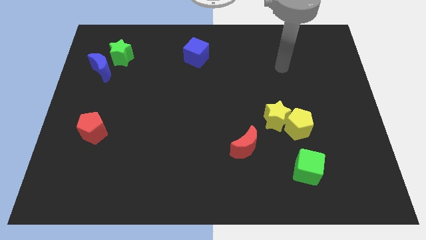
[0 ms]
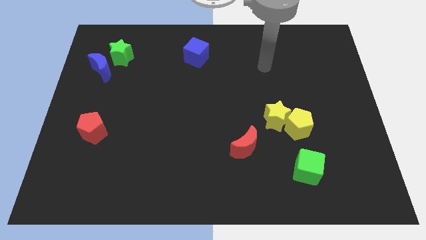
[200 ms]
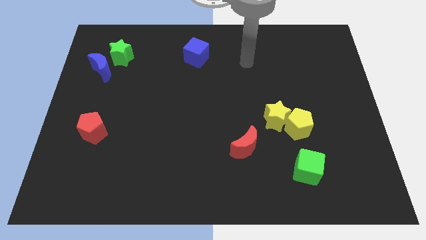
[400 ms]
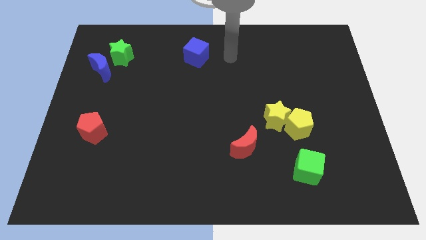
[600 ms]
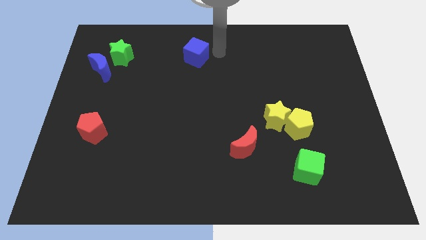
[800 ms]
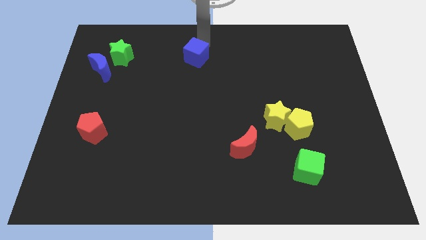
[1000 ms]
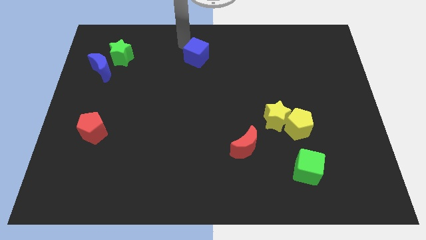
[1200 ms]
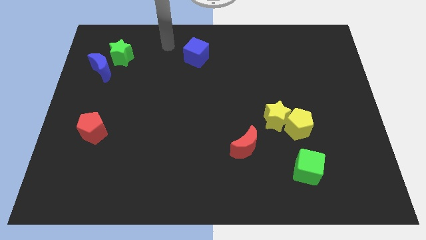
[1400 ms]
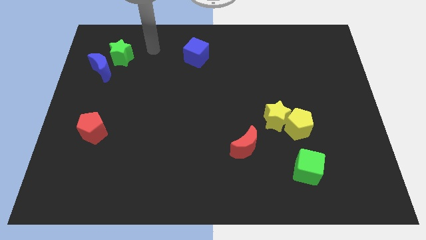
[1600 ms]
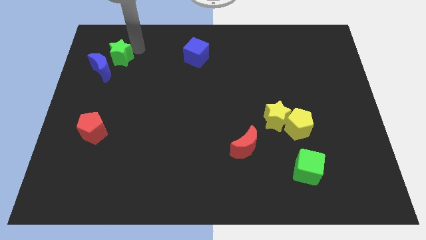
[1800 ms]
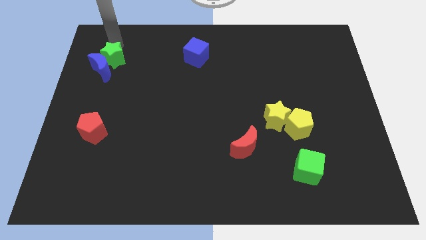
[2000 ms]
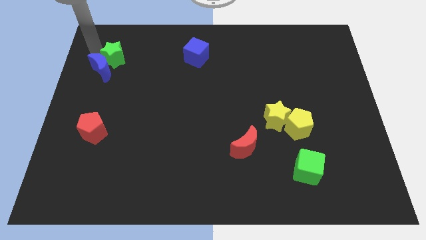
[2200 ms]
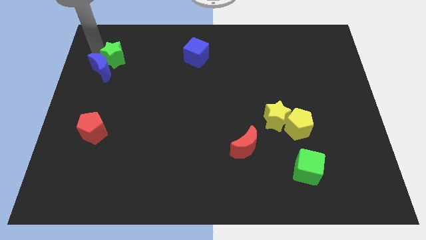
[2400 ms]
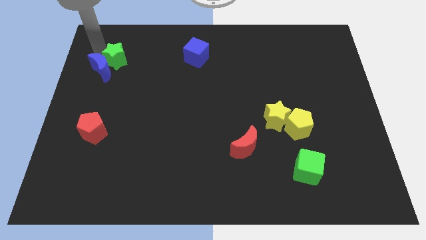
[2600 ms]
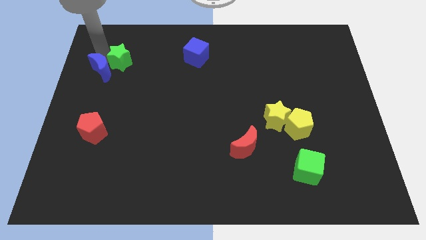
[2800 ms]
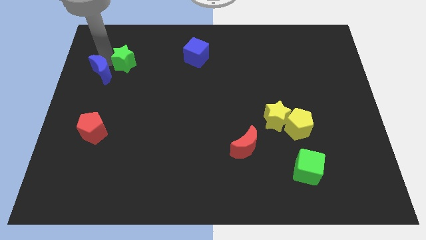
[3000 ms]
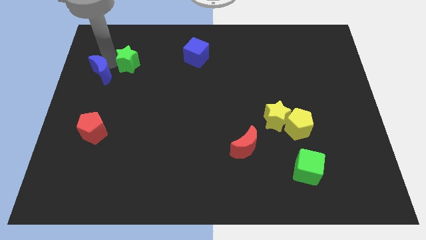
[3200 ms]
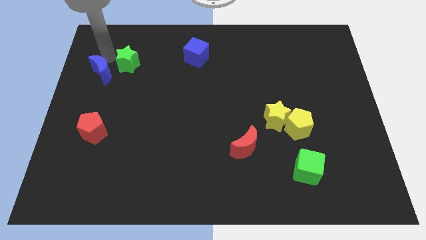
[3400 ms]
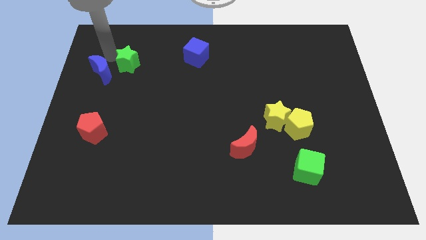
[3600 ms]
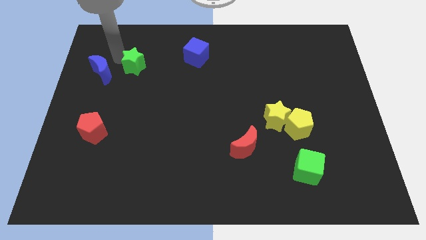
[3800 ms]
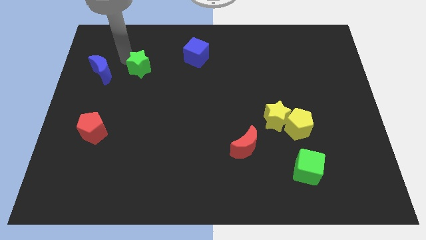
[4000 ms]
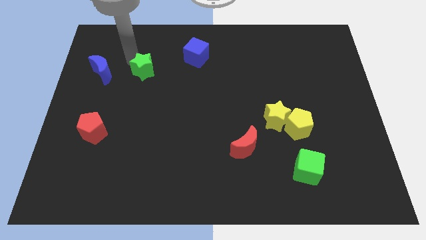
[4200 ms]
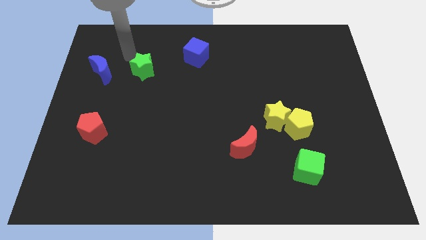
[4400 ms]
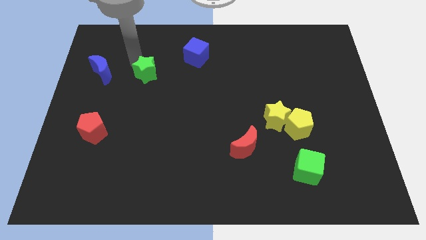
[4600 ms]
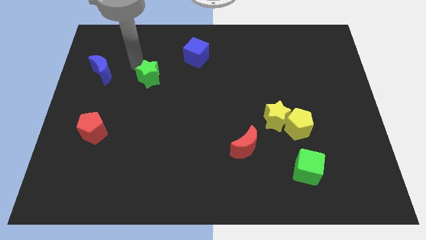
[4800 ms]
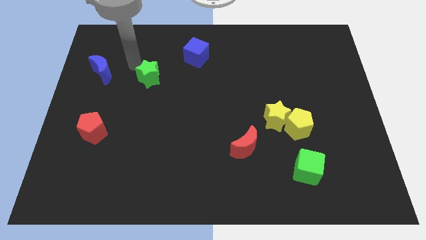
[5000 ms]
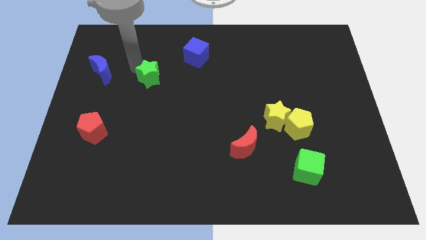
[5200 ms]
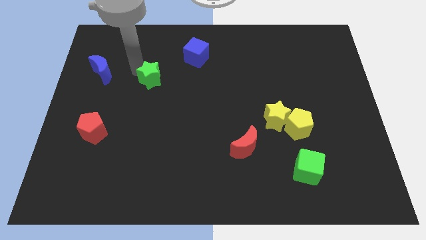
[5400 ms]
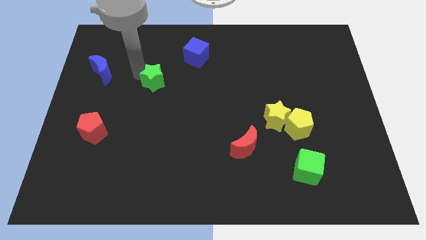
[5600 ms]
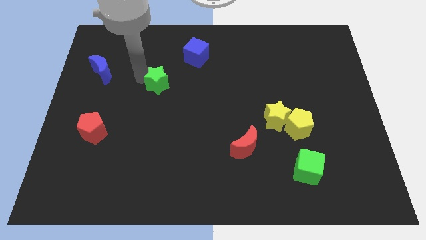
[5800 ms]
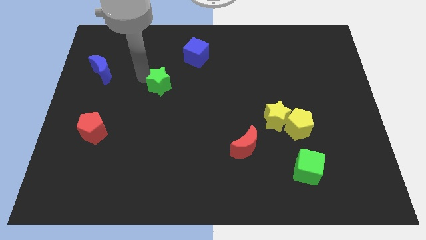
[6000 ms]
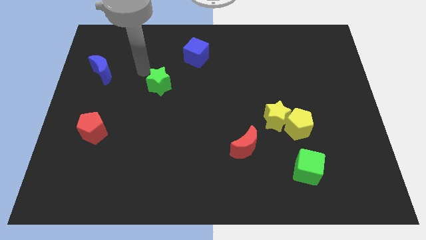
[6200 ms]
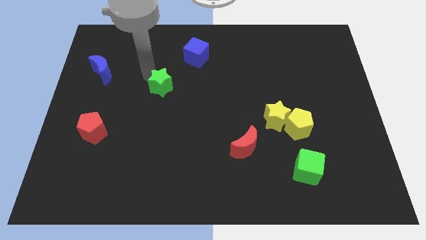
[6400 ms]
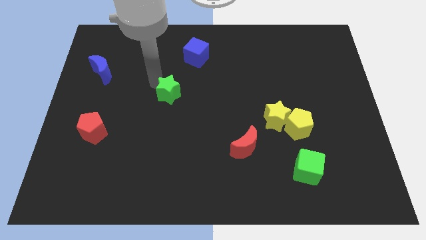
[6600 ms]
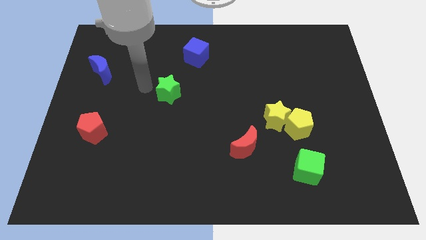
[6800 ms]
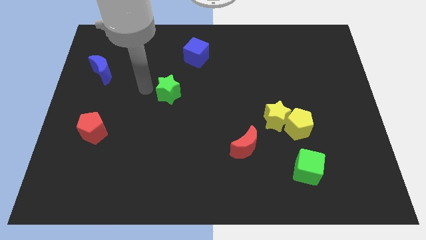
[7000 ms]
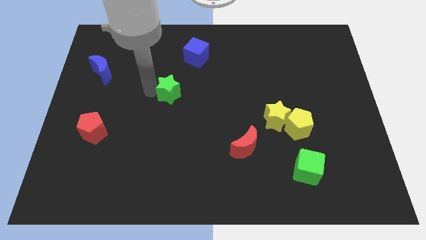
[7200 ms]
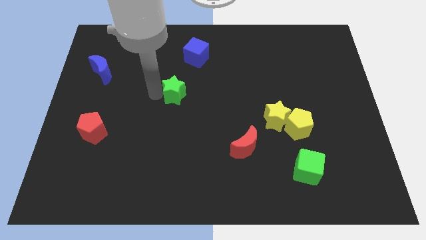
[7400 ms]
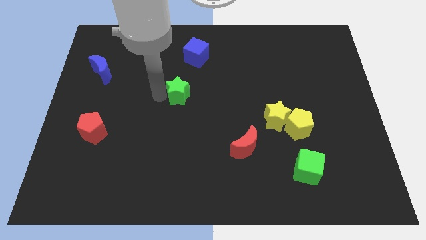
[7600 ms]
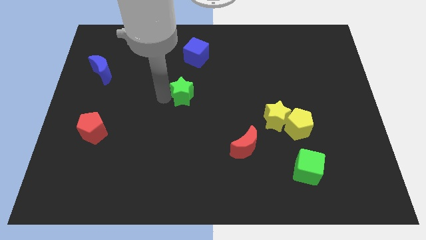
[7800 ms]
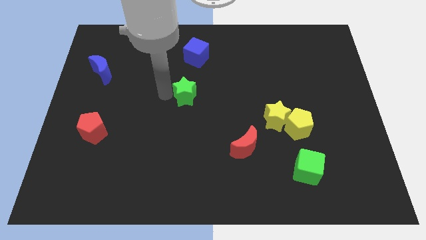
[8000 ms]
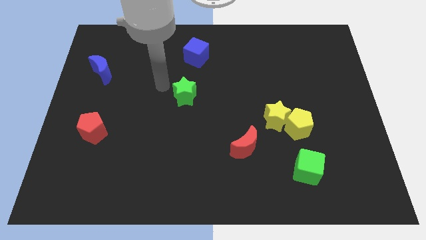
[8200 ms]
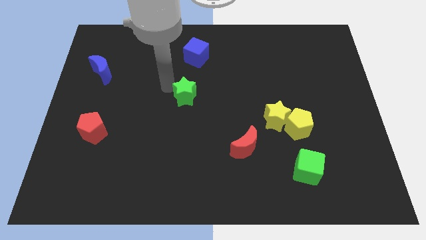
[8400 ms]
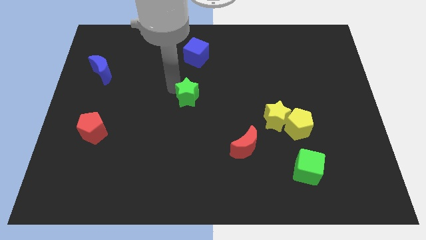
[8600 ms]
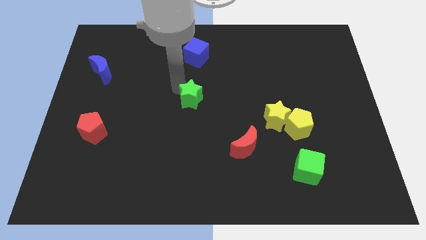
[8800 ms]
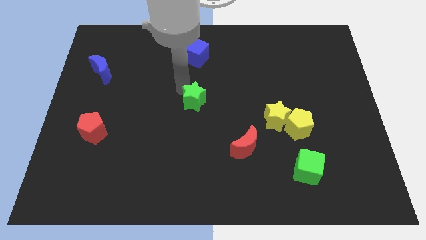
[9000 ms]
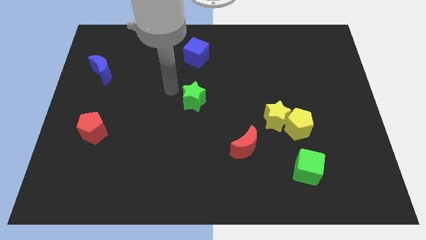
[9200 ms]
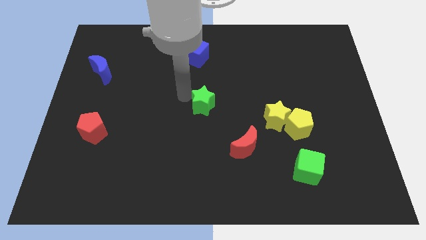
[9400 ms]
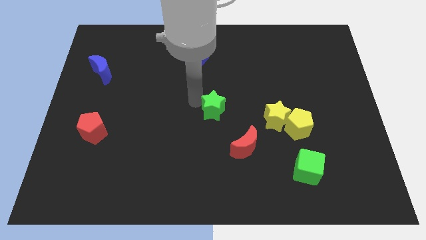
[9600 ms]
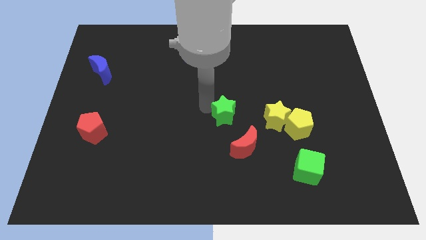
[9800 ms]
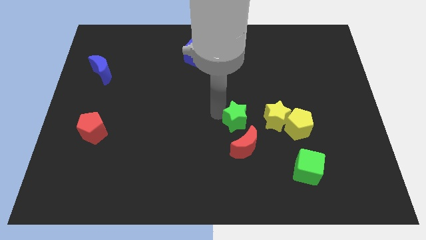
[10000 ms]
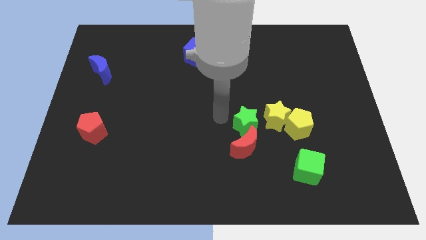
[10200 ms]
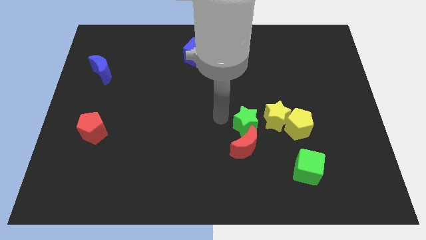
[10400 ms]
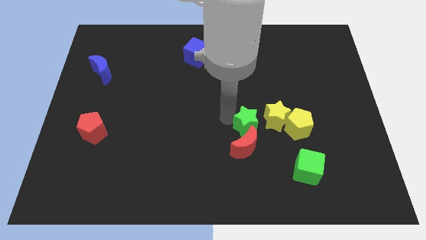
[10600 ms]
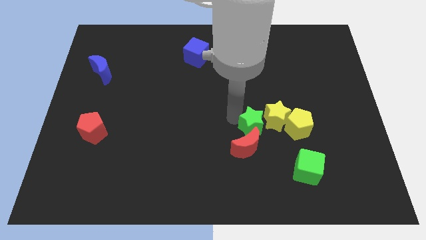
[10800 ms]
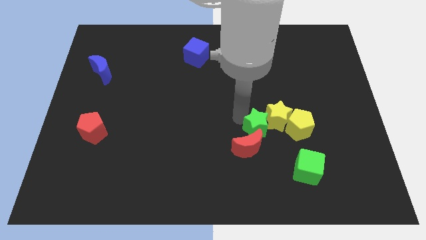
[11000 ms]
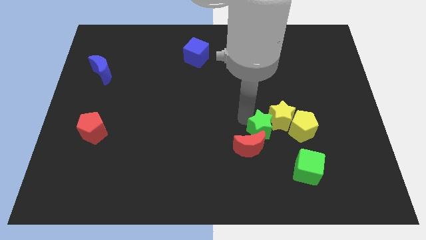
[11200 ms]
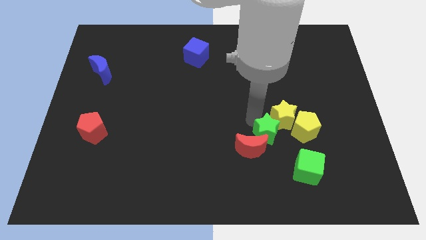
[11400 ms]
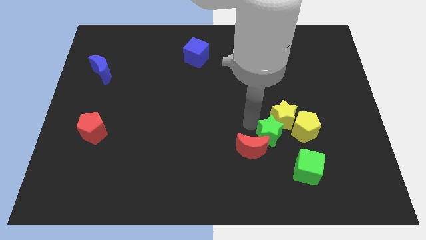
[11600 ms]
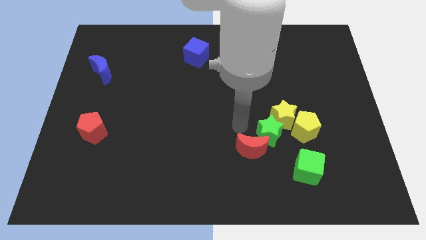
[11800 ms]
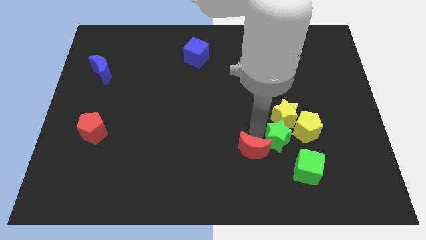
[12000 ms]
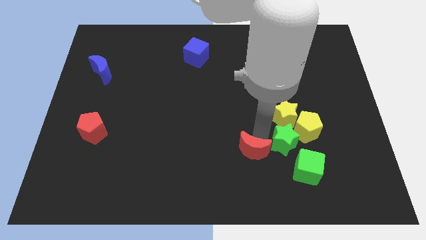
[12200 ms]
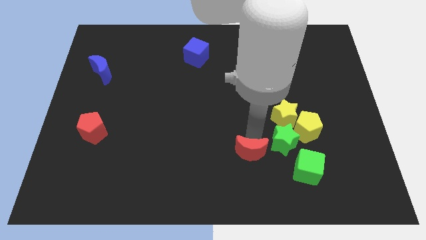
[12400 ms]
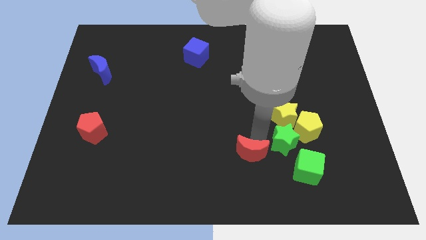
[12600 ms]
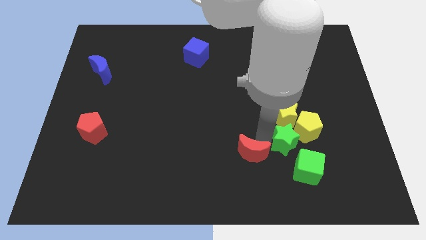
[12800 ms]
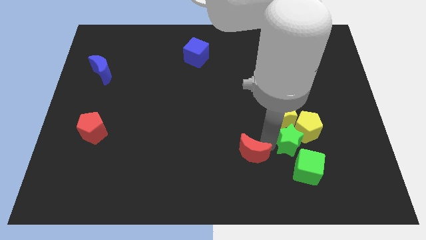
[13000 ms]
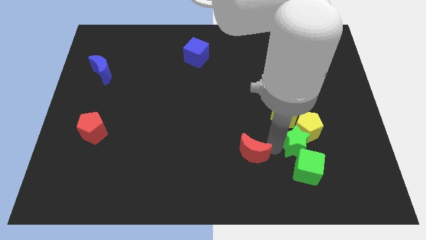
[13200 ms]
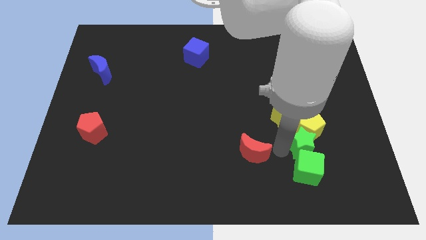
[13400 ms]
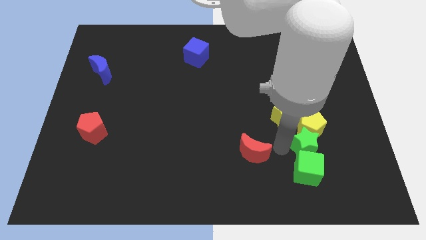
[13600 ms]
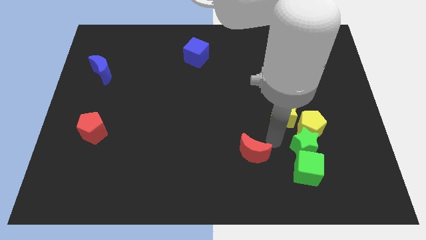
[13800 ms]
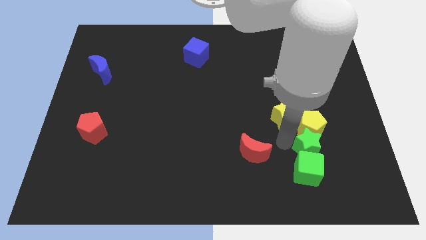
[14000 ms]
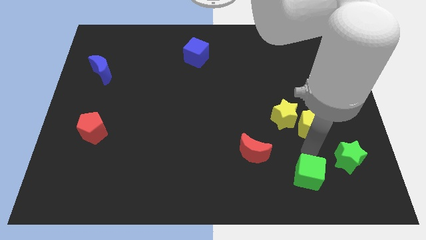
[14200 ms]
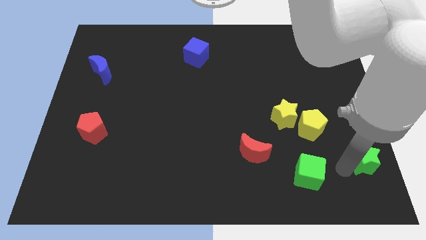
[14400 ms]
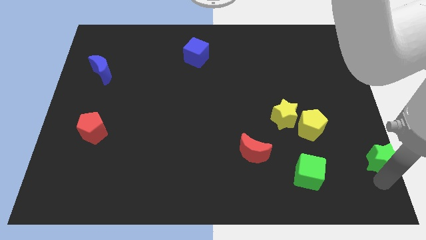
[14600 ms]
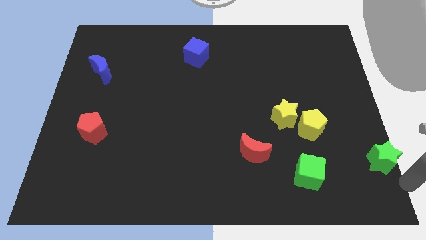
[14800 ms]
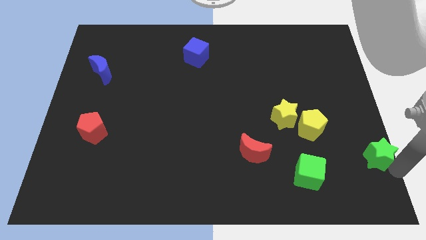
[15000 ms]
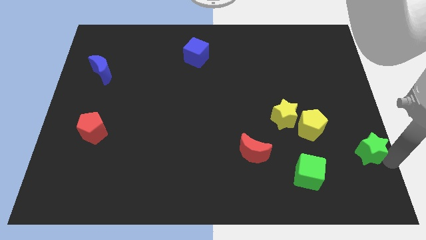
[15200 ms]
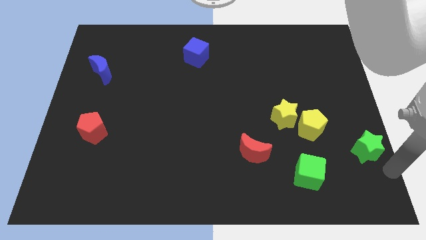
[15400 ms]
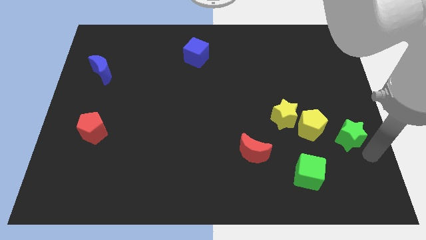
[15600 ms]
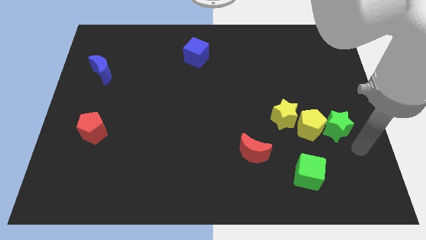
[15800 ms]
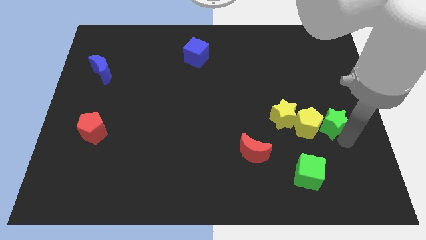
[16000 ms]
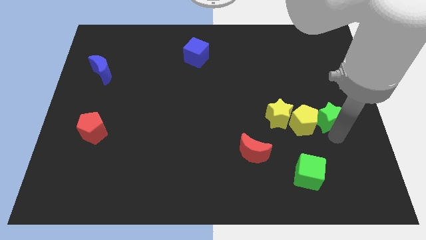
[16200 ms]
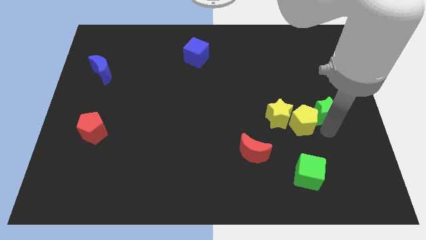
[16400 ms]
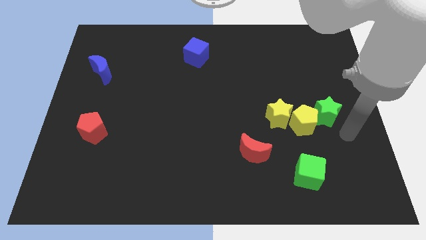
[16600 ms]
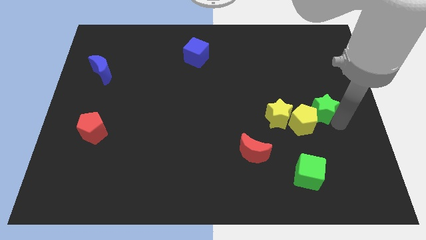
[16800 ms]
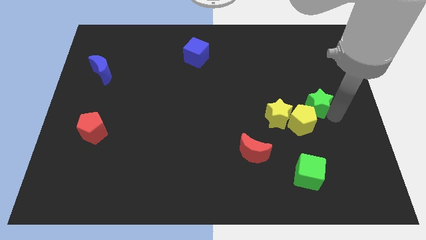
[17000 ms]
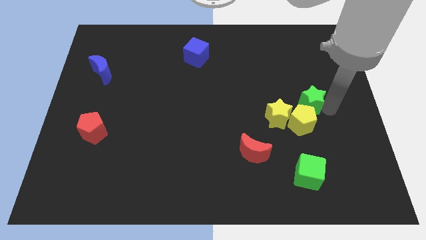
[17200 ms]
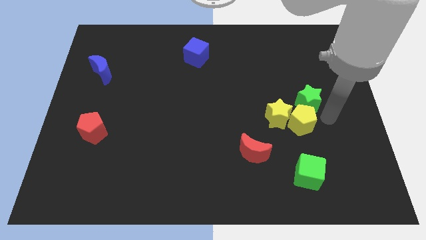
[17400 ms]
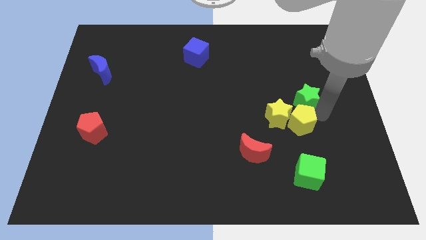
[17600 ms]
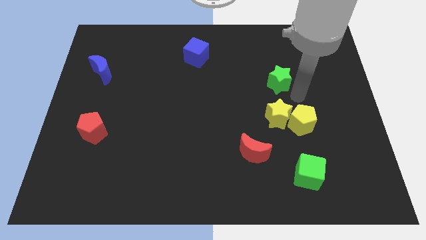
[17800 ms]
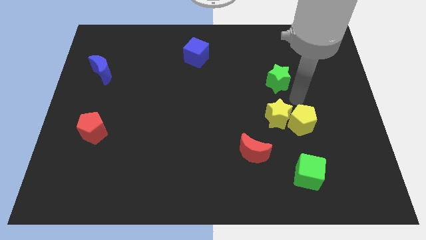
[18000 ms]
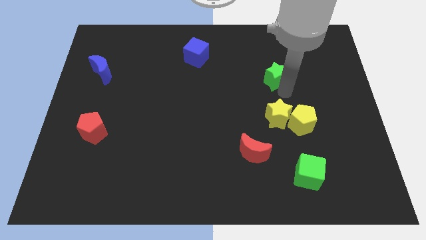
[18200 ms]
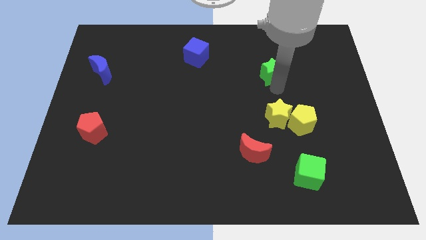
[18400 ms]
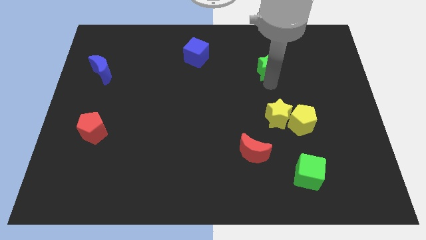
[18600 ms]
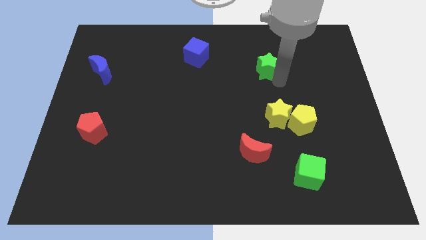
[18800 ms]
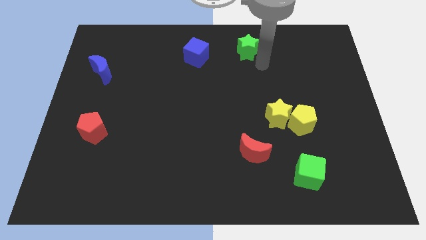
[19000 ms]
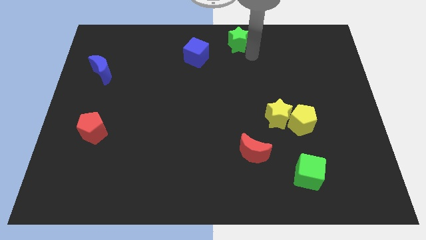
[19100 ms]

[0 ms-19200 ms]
move the green star to the top
